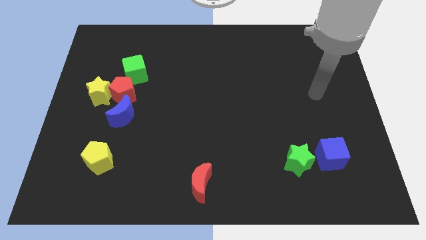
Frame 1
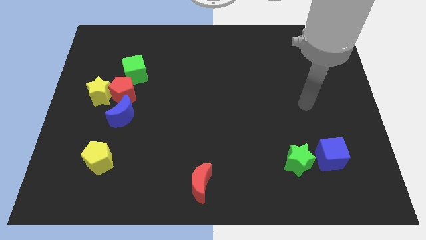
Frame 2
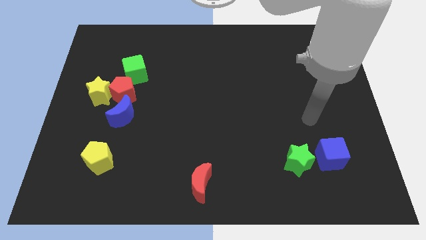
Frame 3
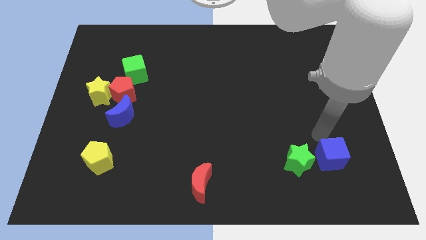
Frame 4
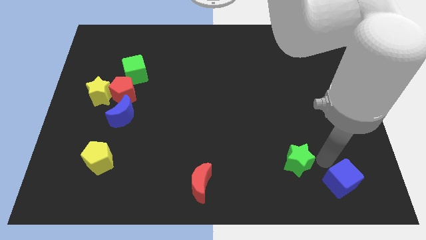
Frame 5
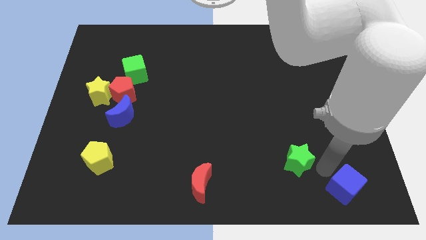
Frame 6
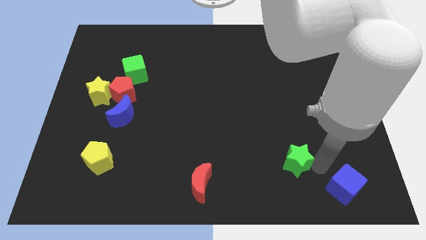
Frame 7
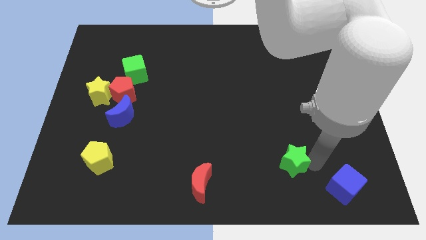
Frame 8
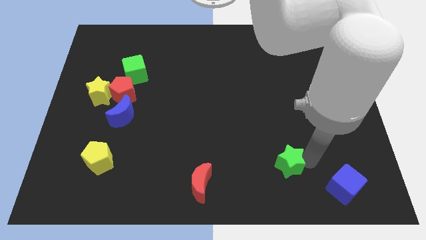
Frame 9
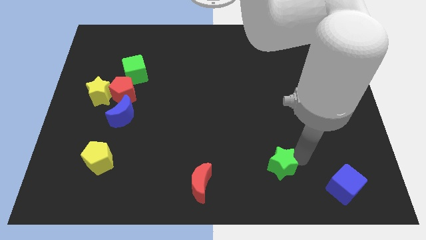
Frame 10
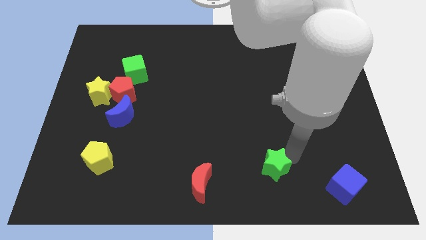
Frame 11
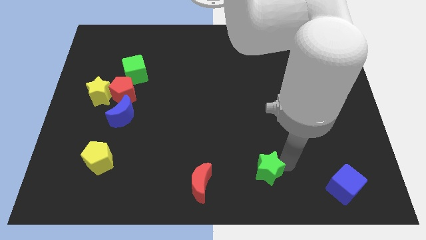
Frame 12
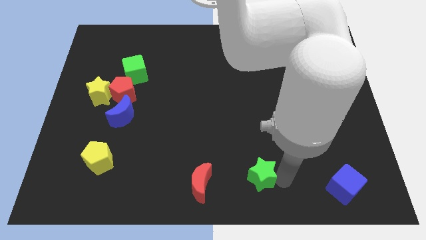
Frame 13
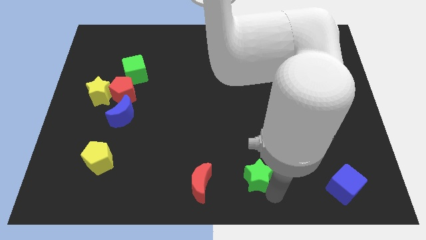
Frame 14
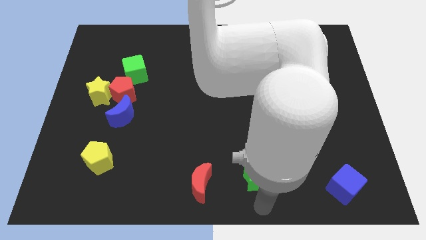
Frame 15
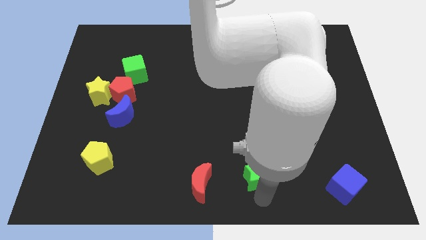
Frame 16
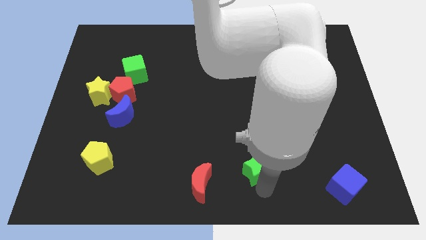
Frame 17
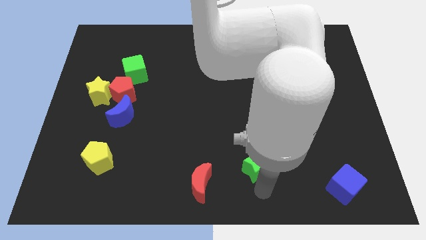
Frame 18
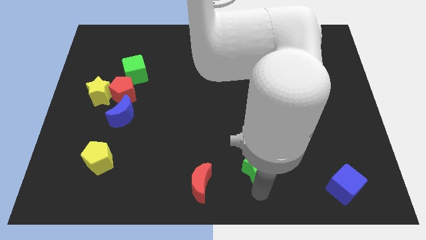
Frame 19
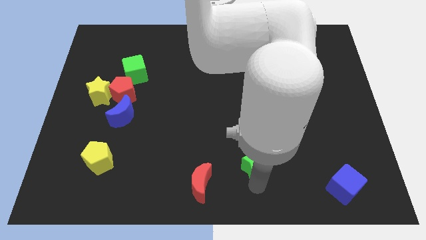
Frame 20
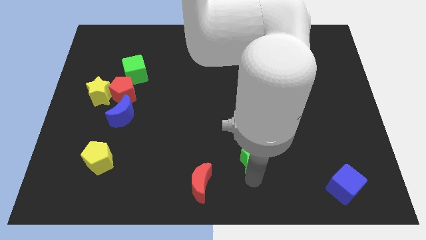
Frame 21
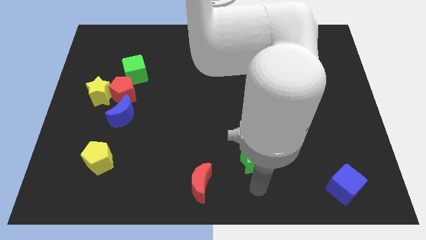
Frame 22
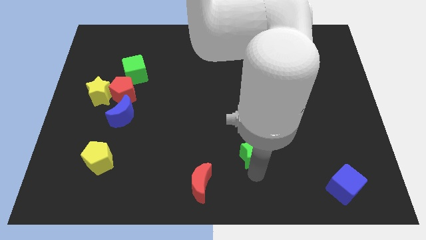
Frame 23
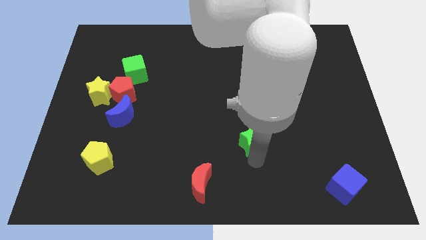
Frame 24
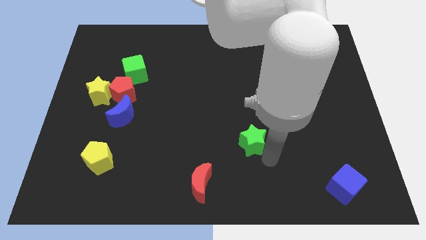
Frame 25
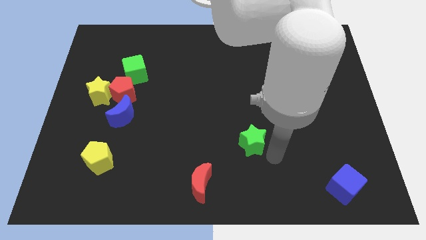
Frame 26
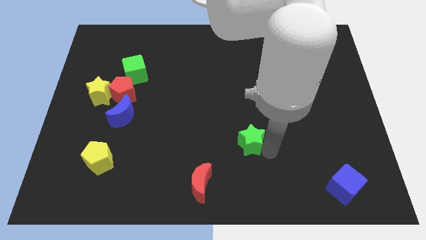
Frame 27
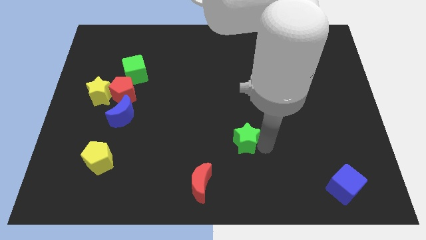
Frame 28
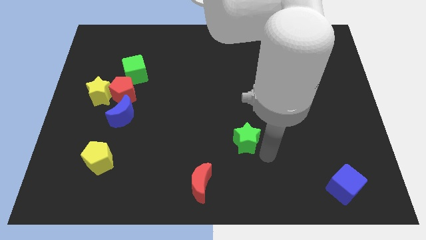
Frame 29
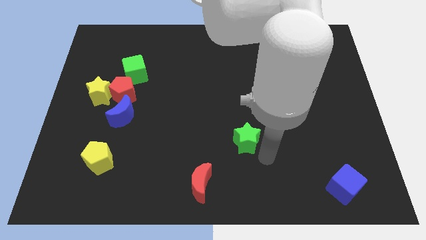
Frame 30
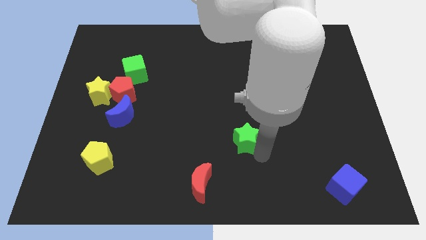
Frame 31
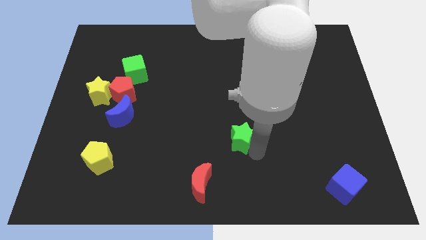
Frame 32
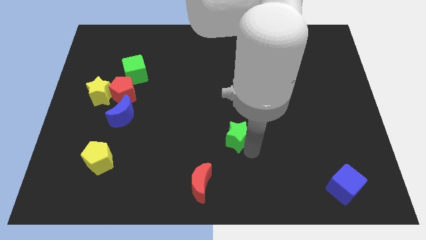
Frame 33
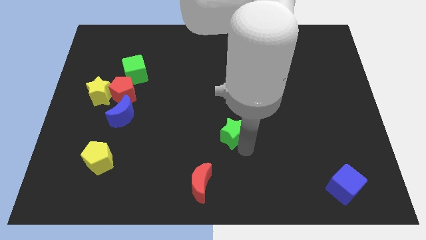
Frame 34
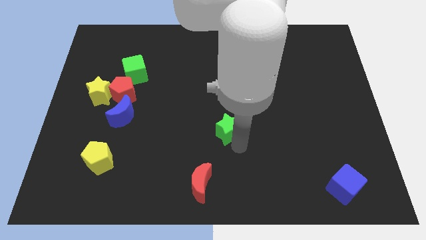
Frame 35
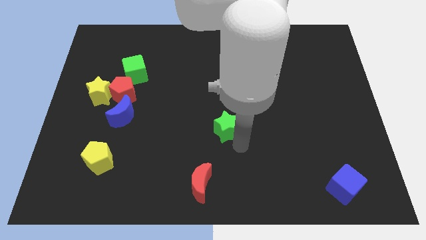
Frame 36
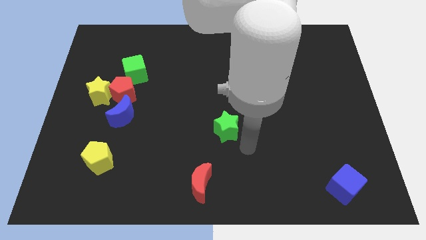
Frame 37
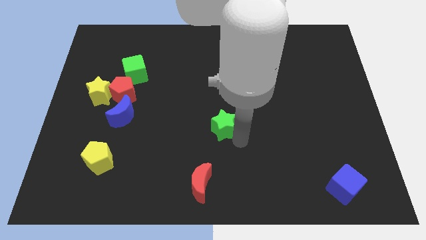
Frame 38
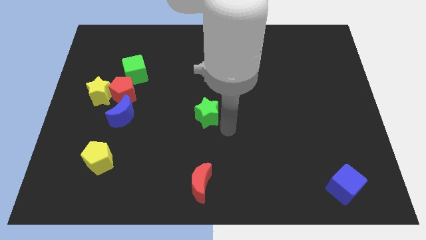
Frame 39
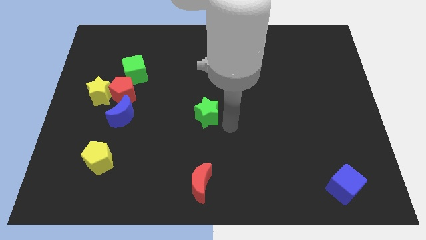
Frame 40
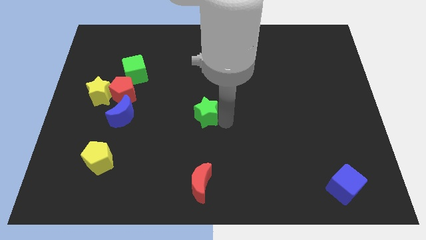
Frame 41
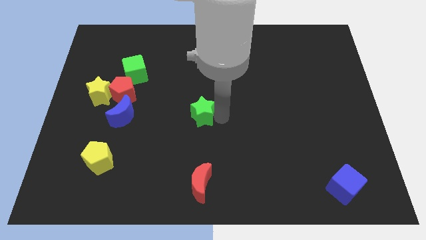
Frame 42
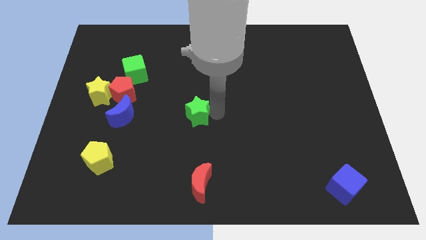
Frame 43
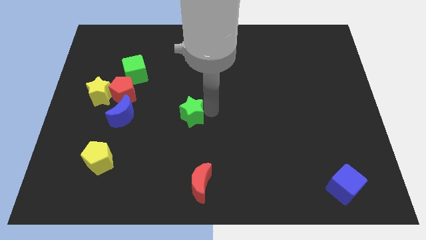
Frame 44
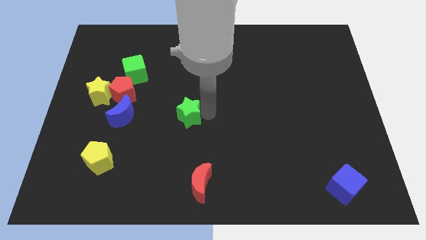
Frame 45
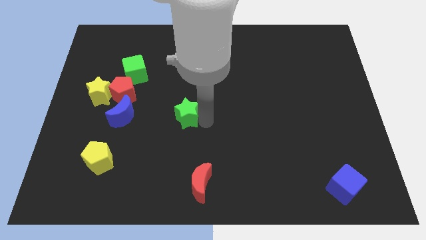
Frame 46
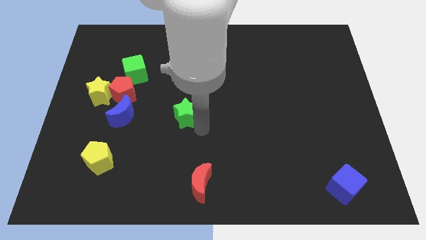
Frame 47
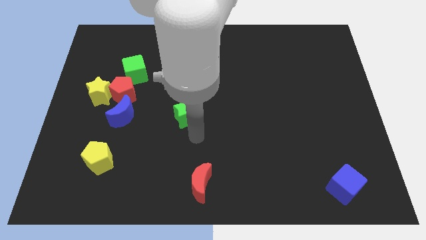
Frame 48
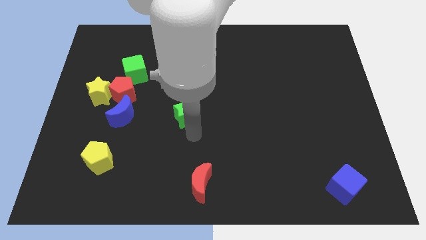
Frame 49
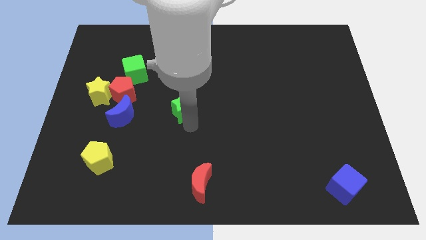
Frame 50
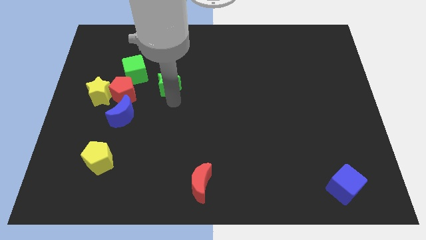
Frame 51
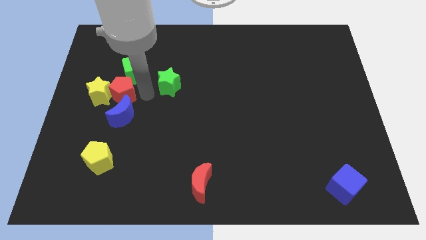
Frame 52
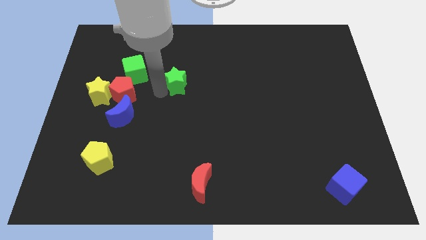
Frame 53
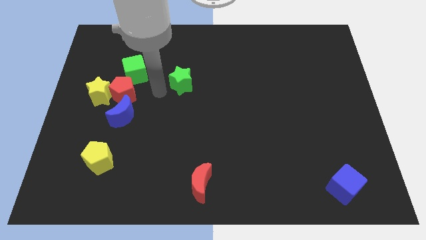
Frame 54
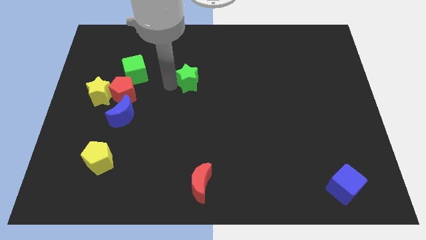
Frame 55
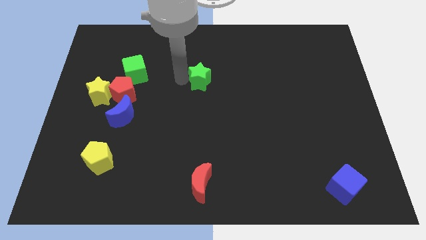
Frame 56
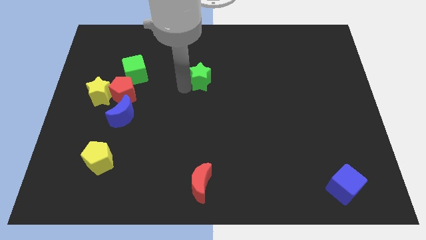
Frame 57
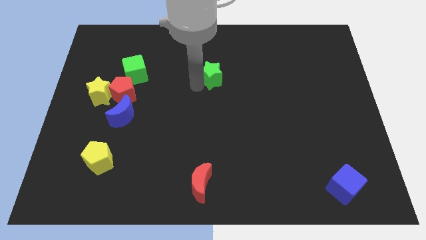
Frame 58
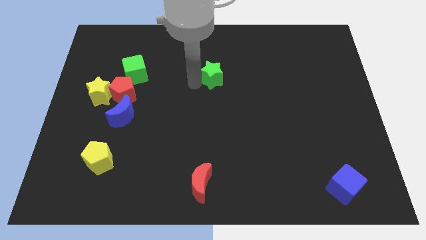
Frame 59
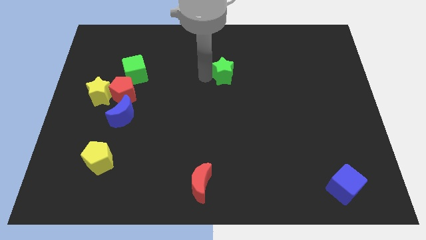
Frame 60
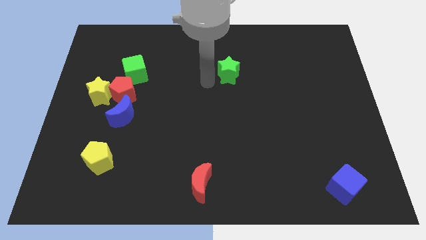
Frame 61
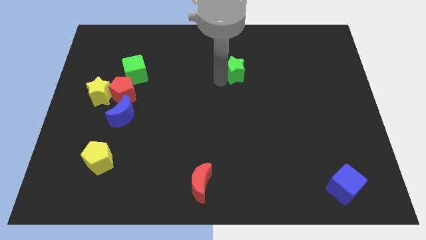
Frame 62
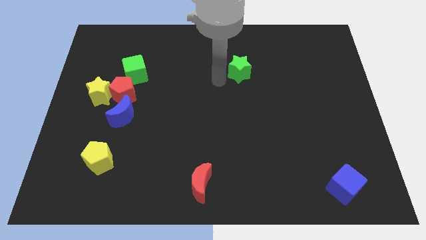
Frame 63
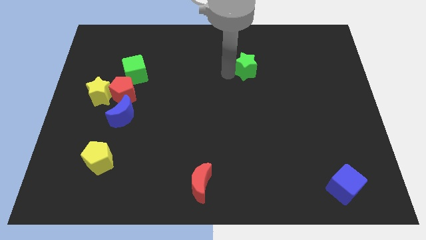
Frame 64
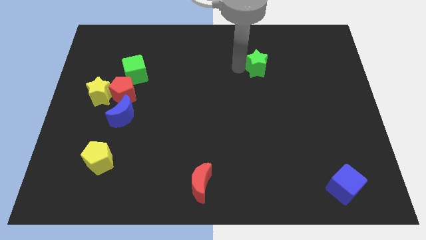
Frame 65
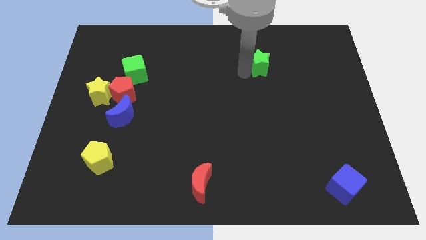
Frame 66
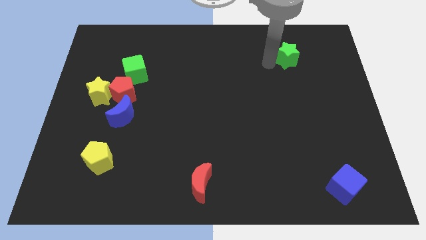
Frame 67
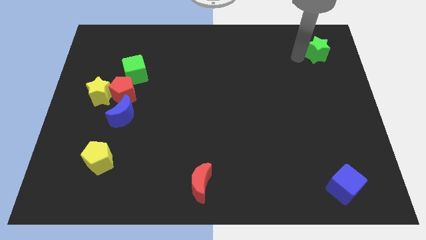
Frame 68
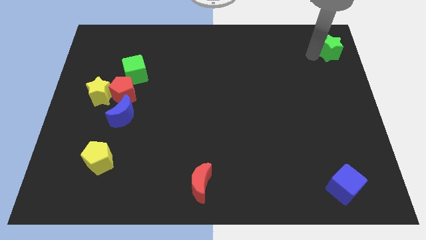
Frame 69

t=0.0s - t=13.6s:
push the green star to the upper right corner
